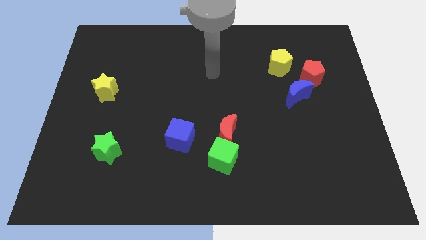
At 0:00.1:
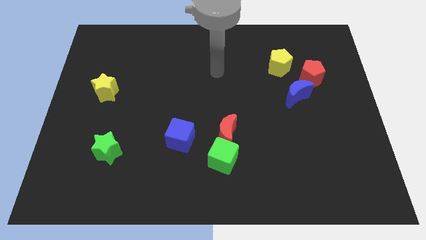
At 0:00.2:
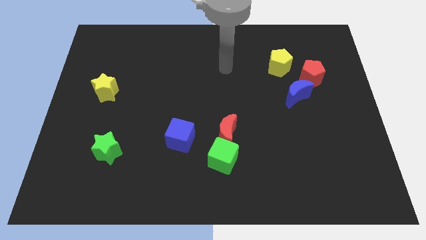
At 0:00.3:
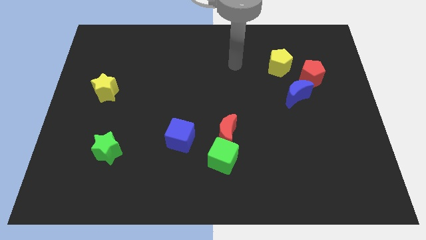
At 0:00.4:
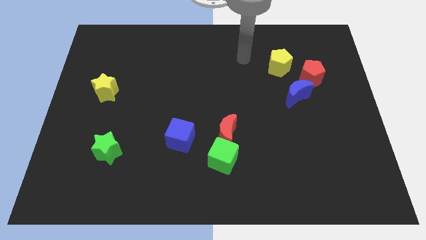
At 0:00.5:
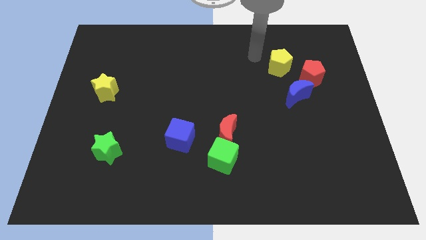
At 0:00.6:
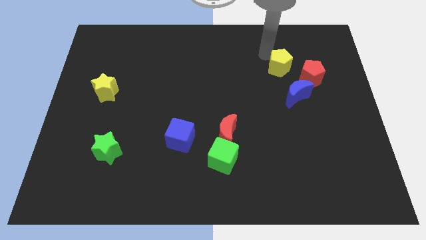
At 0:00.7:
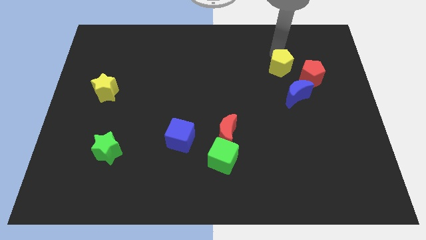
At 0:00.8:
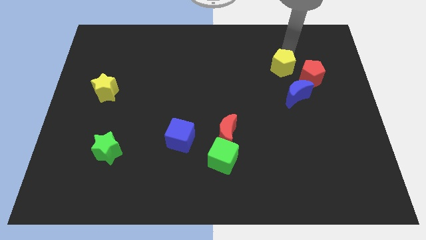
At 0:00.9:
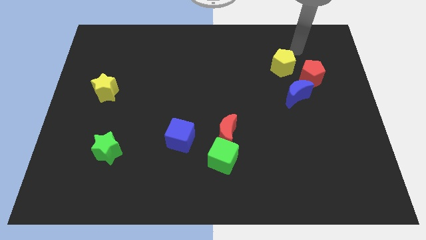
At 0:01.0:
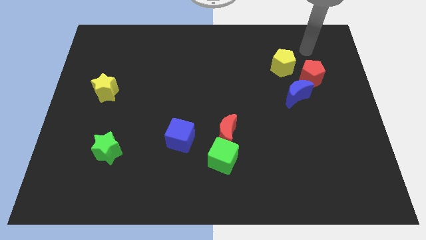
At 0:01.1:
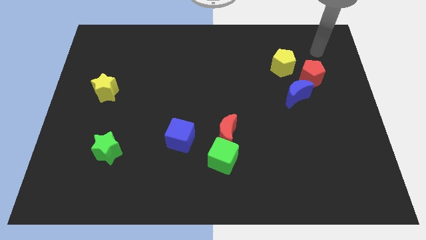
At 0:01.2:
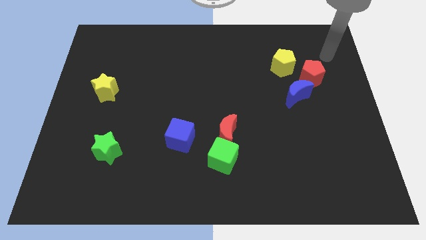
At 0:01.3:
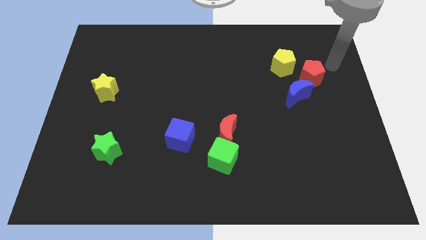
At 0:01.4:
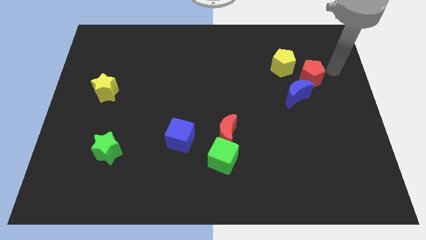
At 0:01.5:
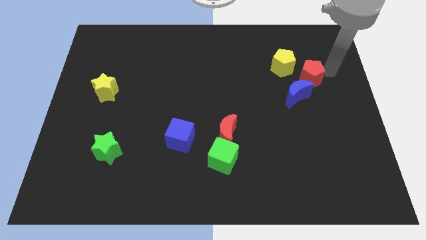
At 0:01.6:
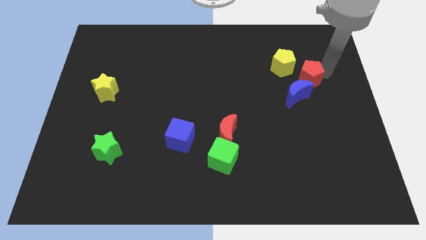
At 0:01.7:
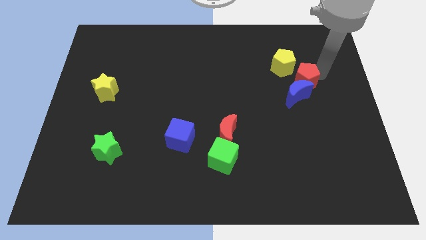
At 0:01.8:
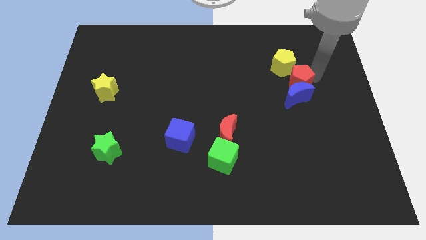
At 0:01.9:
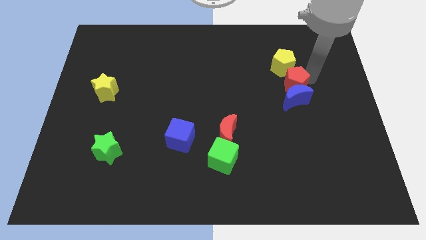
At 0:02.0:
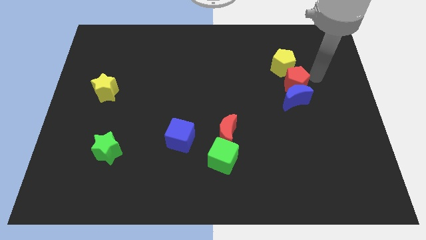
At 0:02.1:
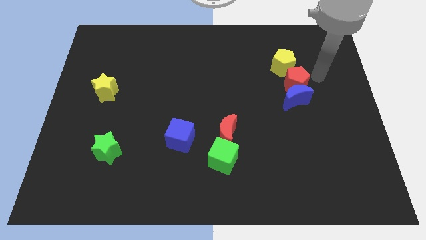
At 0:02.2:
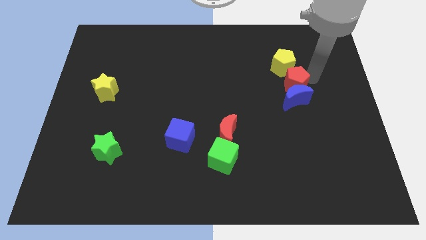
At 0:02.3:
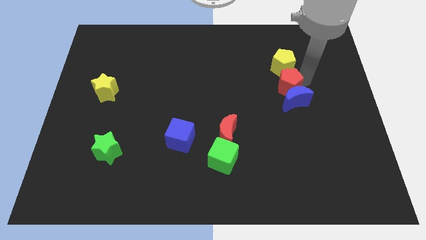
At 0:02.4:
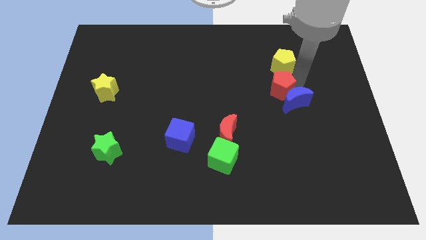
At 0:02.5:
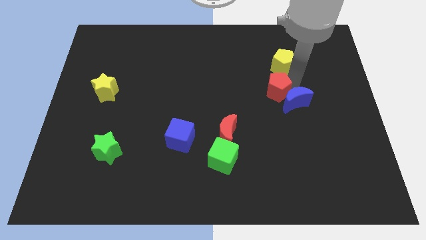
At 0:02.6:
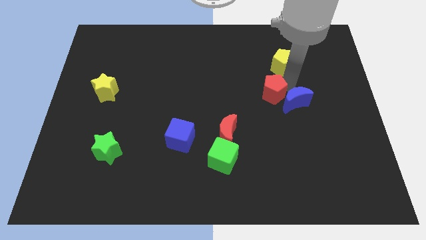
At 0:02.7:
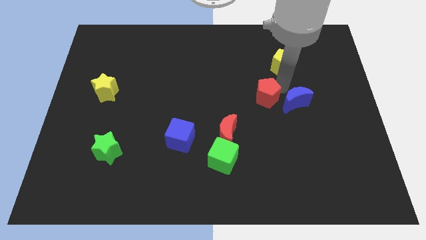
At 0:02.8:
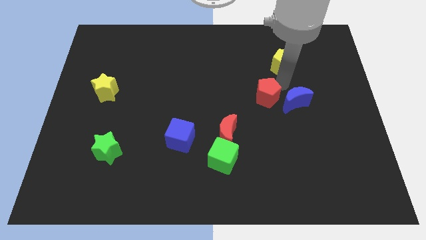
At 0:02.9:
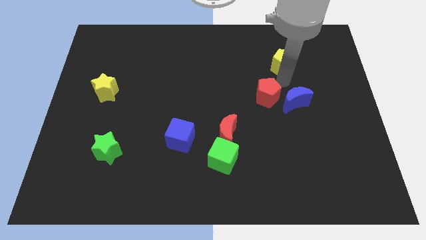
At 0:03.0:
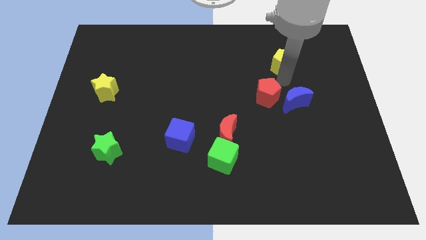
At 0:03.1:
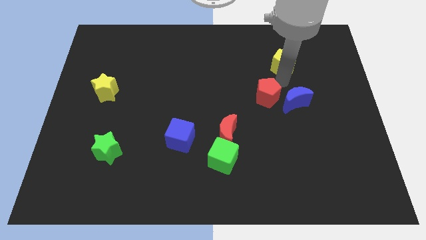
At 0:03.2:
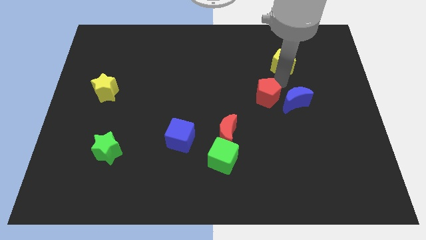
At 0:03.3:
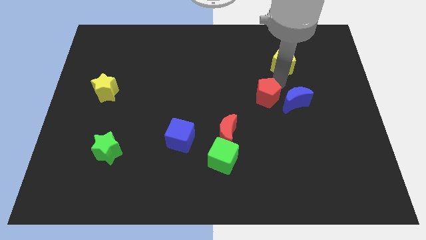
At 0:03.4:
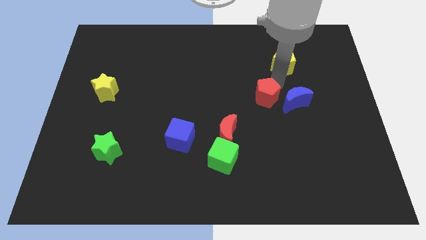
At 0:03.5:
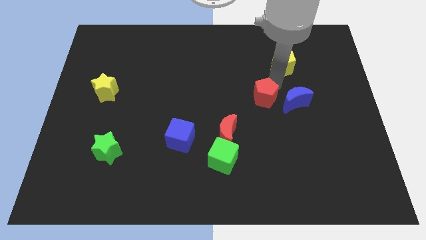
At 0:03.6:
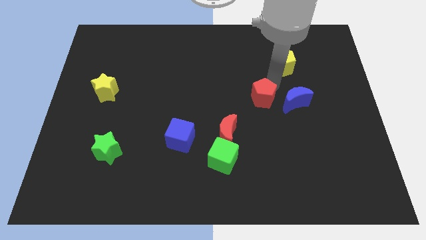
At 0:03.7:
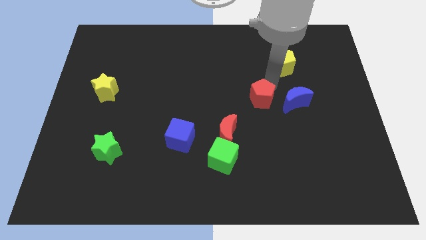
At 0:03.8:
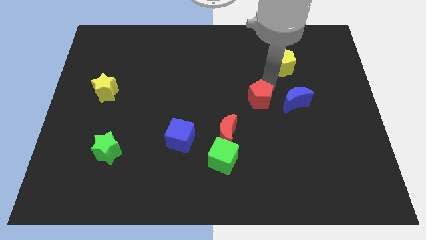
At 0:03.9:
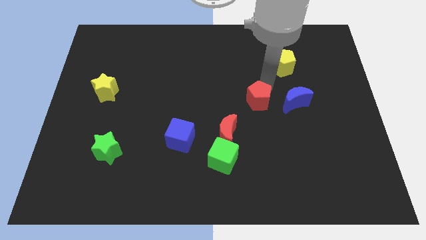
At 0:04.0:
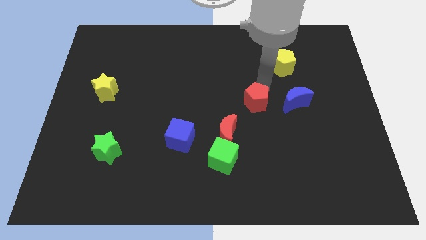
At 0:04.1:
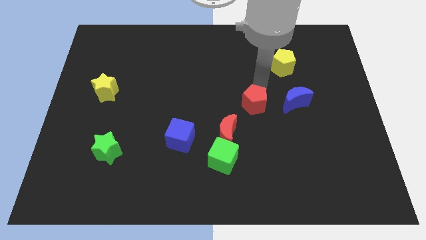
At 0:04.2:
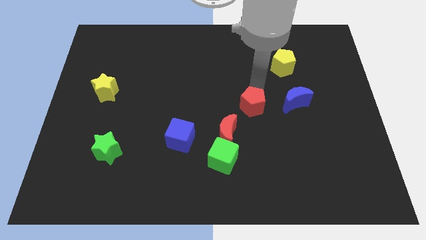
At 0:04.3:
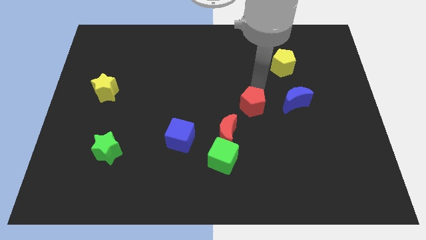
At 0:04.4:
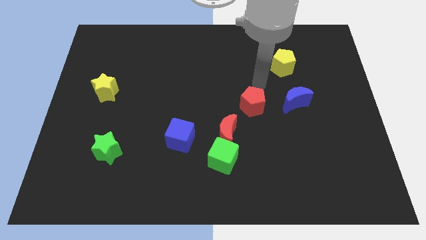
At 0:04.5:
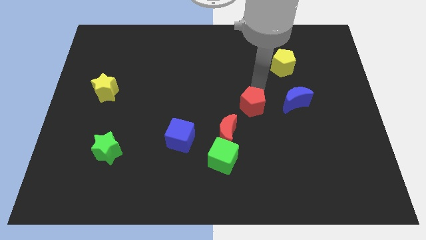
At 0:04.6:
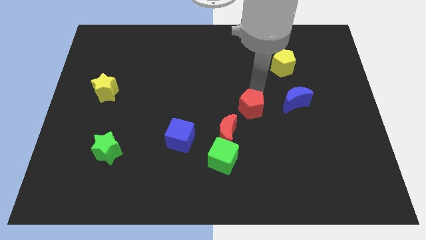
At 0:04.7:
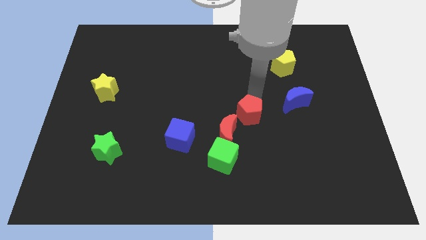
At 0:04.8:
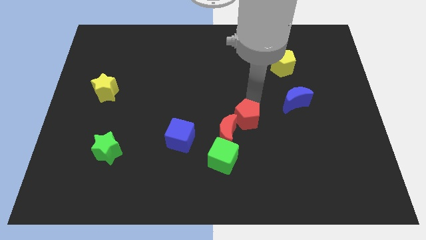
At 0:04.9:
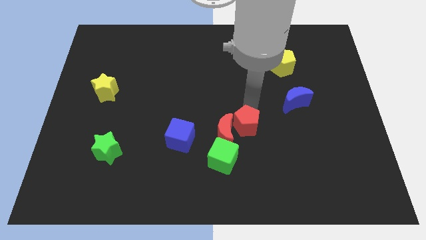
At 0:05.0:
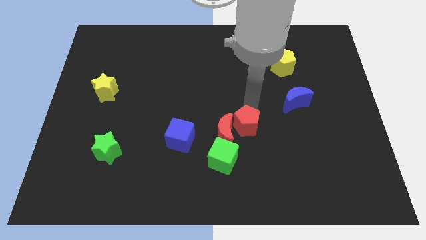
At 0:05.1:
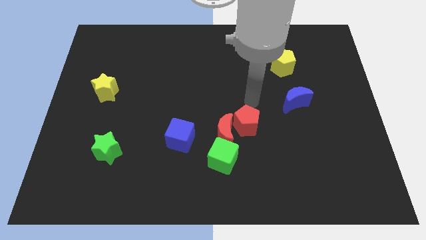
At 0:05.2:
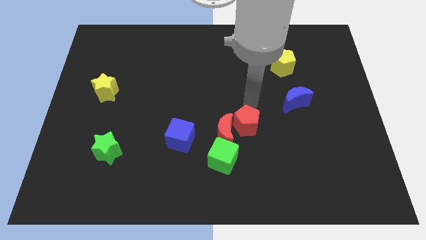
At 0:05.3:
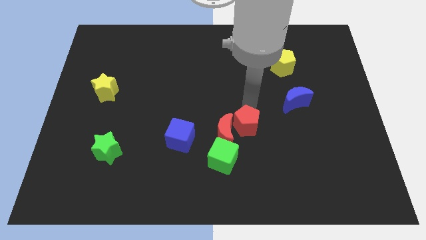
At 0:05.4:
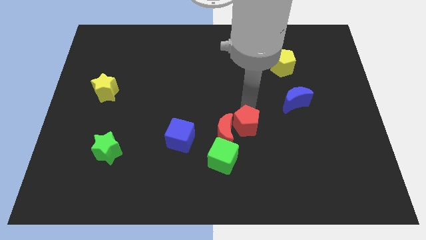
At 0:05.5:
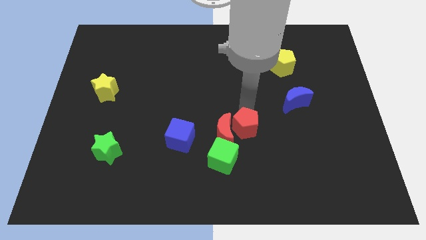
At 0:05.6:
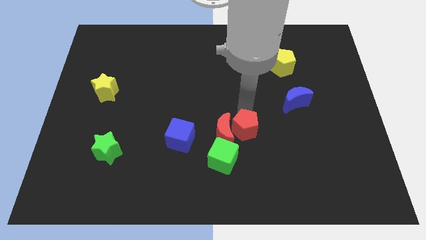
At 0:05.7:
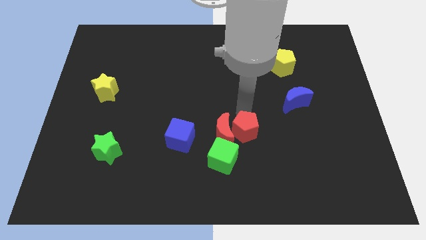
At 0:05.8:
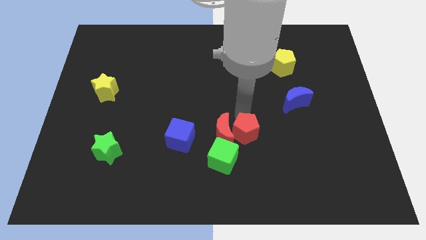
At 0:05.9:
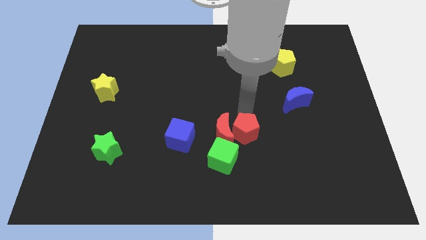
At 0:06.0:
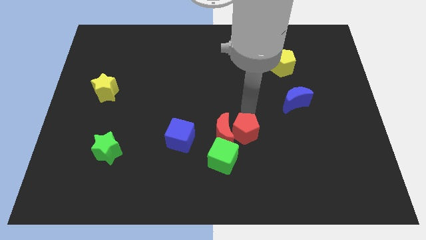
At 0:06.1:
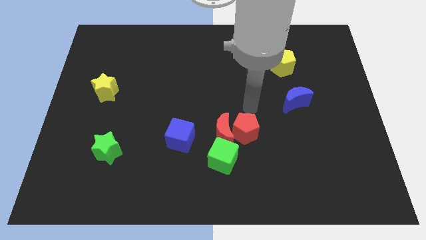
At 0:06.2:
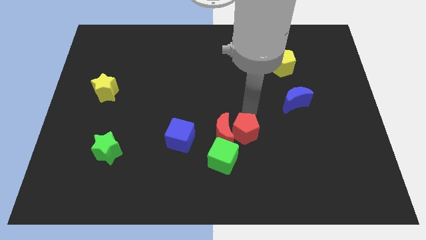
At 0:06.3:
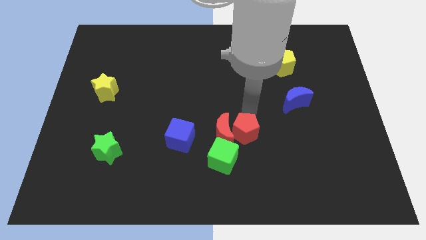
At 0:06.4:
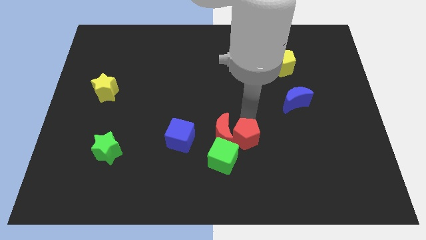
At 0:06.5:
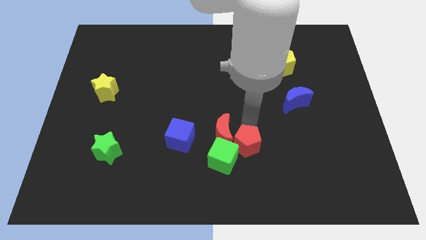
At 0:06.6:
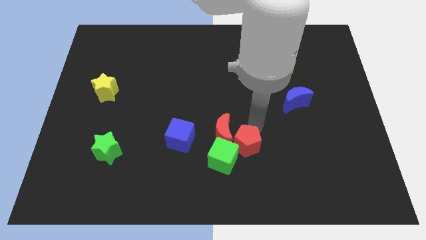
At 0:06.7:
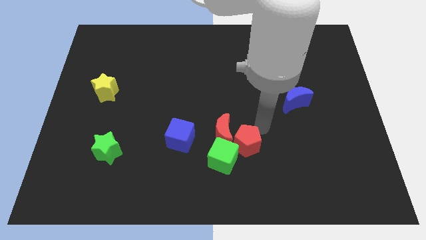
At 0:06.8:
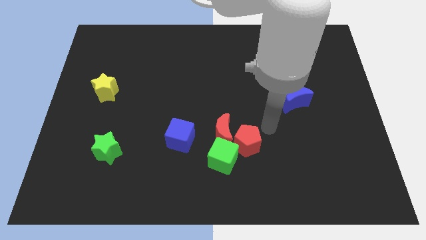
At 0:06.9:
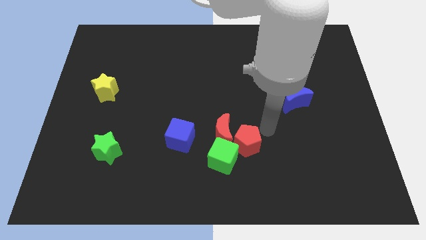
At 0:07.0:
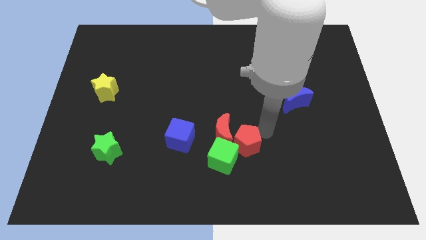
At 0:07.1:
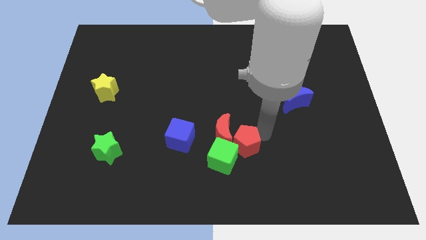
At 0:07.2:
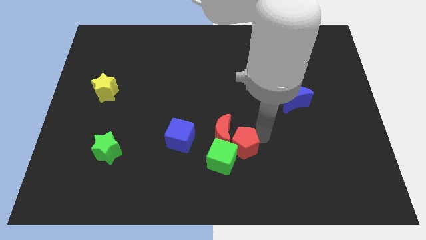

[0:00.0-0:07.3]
push the red pentagon next to the green cube
